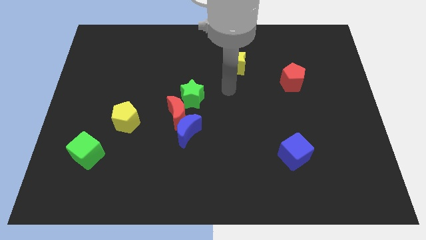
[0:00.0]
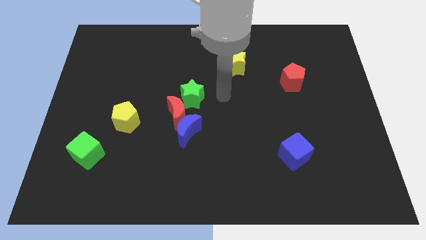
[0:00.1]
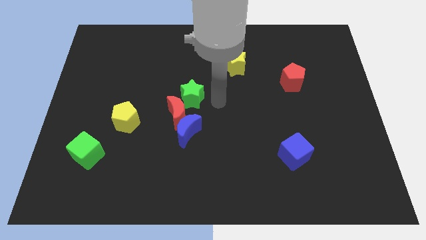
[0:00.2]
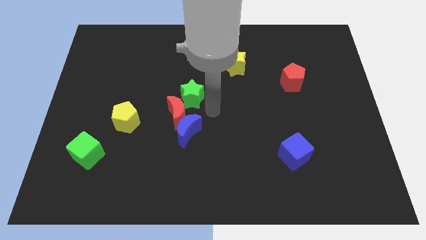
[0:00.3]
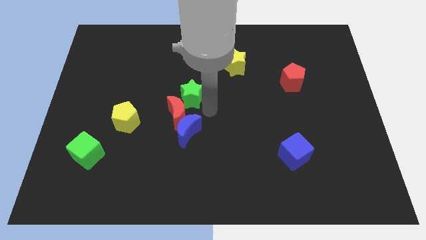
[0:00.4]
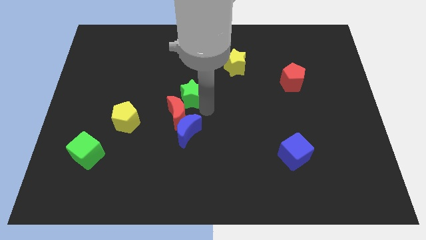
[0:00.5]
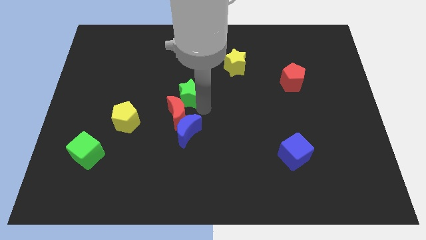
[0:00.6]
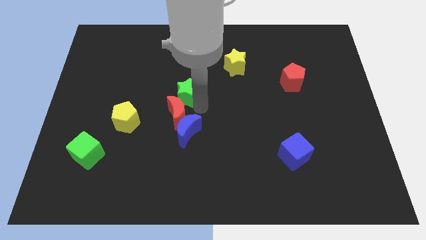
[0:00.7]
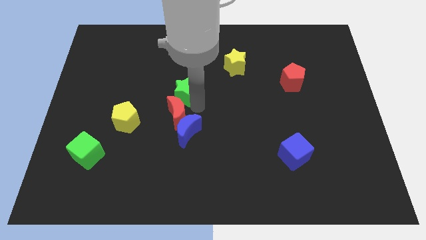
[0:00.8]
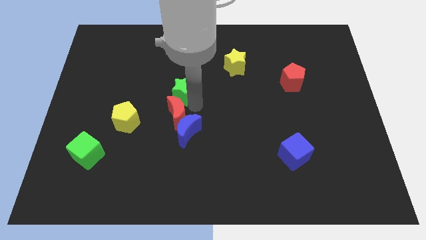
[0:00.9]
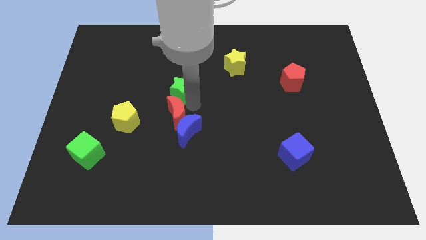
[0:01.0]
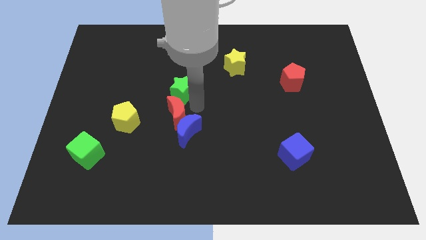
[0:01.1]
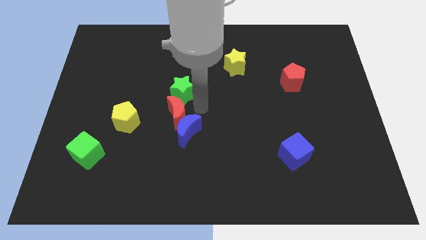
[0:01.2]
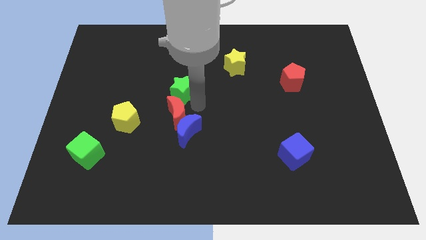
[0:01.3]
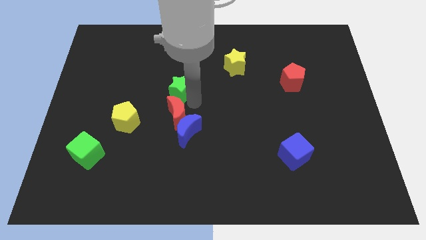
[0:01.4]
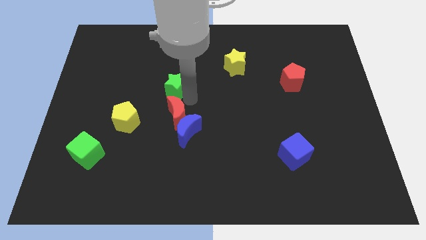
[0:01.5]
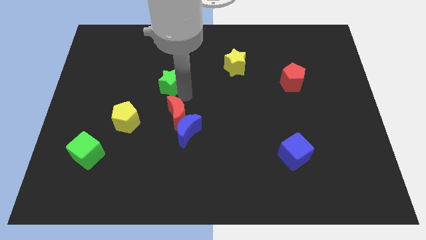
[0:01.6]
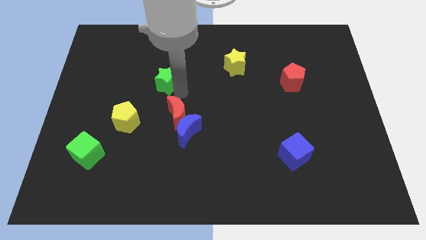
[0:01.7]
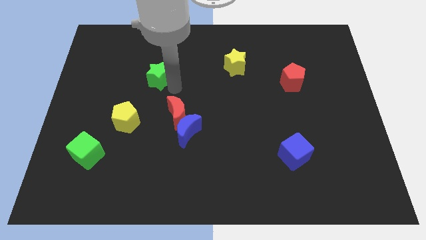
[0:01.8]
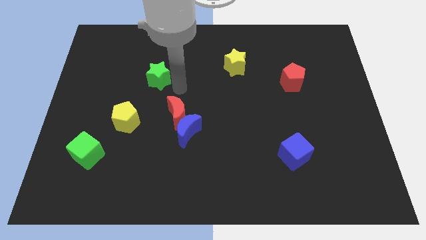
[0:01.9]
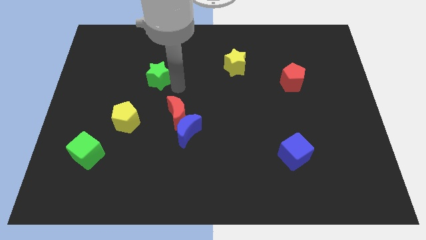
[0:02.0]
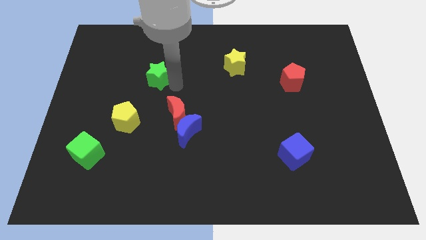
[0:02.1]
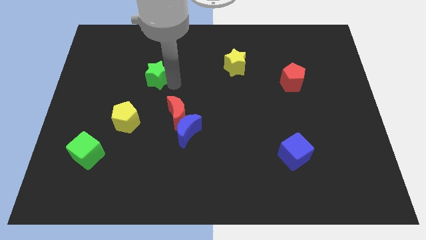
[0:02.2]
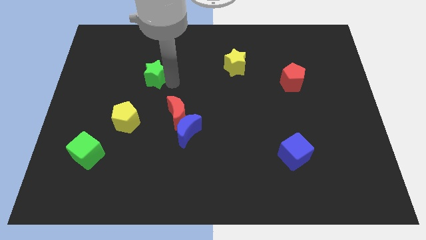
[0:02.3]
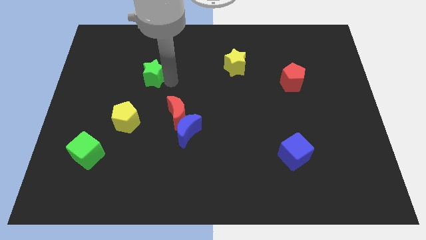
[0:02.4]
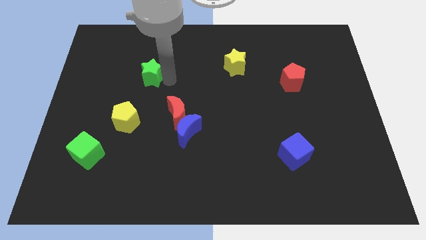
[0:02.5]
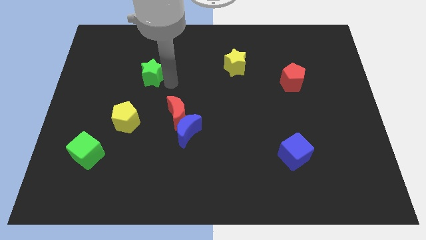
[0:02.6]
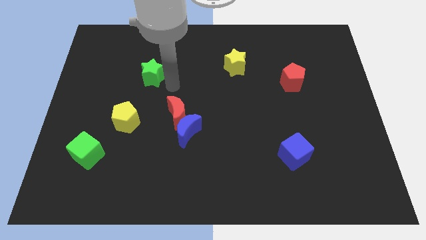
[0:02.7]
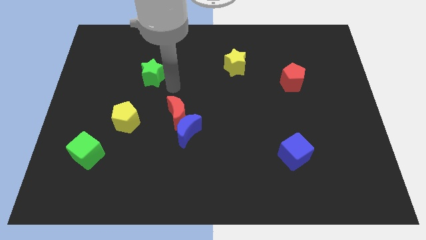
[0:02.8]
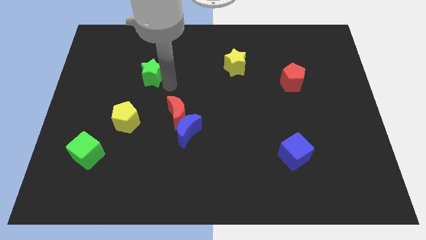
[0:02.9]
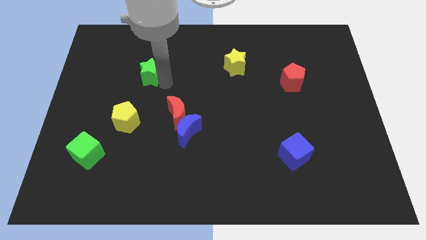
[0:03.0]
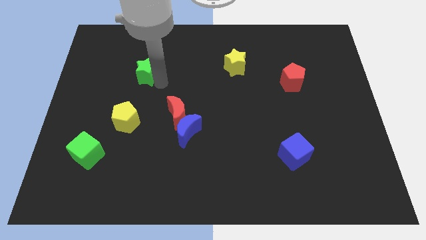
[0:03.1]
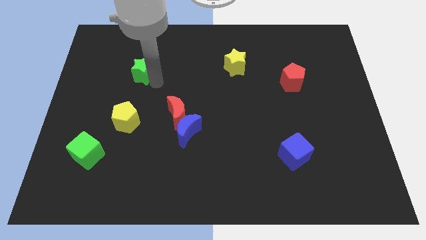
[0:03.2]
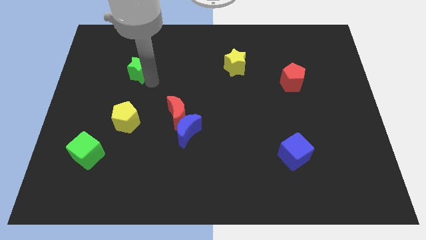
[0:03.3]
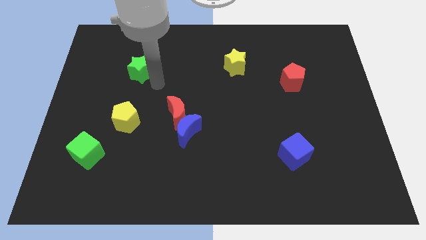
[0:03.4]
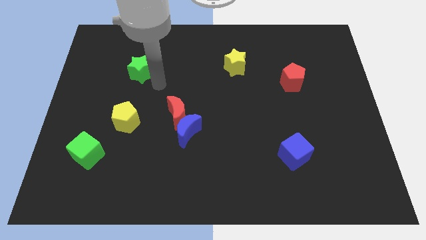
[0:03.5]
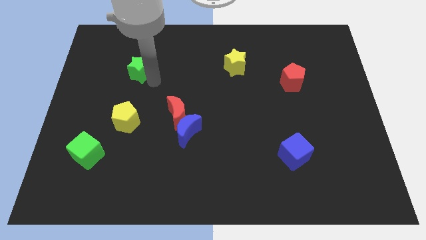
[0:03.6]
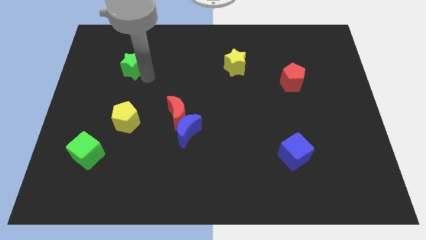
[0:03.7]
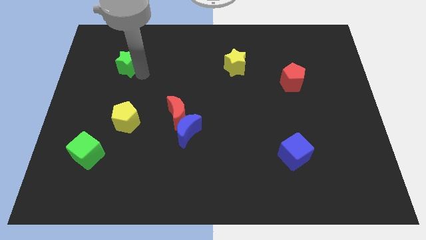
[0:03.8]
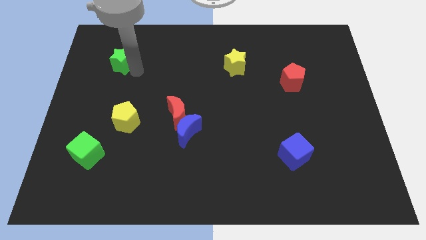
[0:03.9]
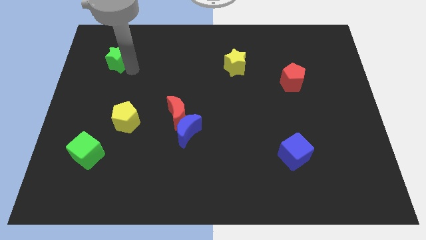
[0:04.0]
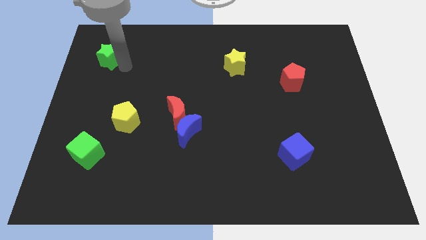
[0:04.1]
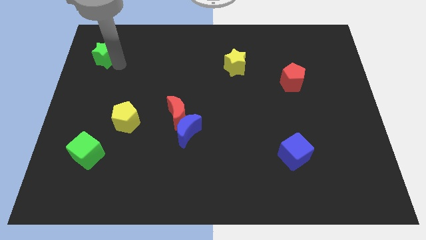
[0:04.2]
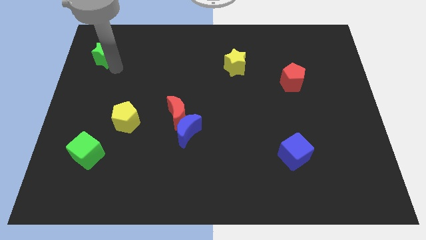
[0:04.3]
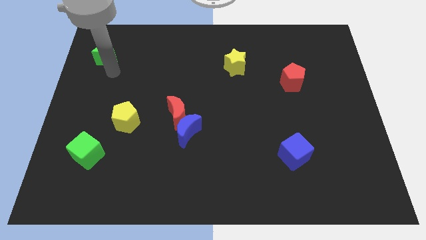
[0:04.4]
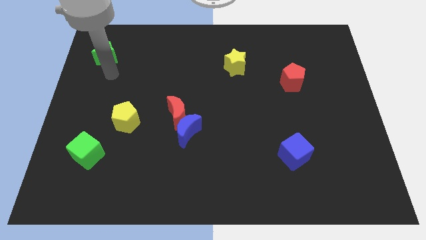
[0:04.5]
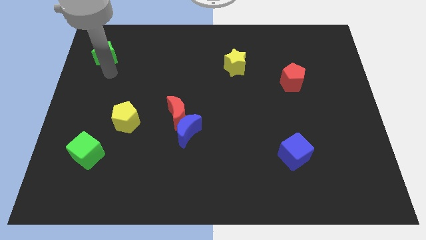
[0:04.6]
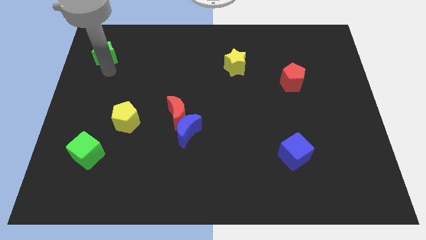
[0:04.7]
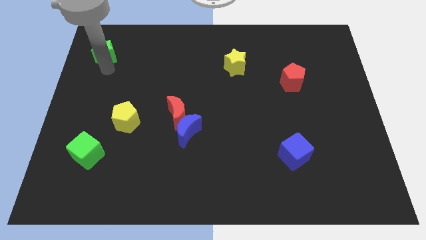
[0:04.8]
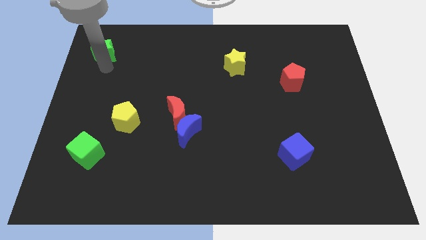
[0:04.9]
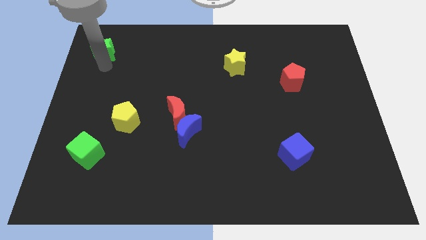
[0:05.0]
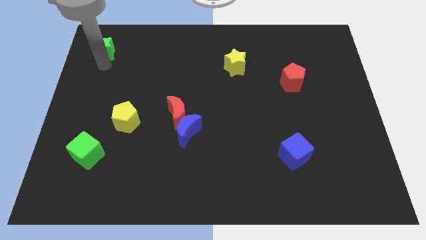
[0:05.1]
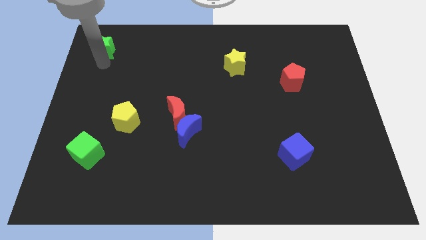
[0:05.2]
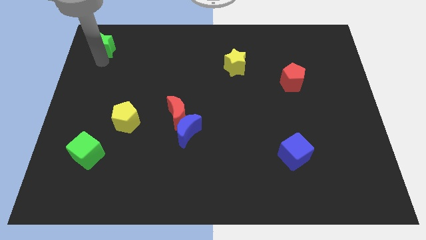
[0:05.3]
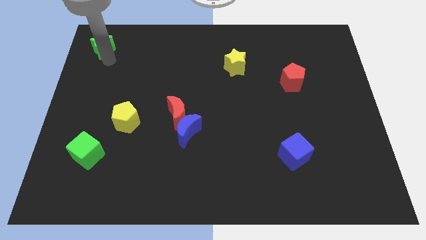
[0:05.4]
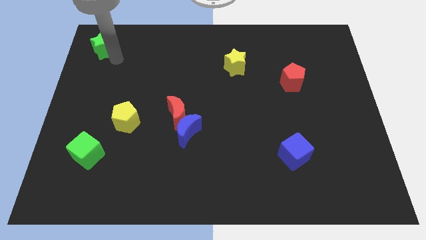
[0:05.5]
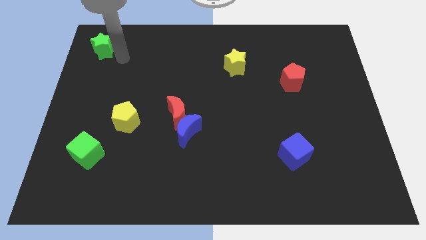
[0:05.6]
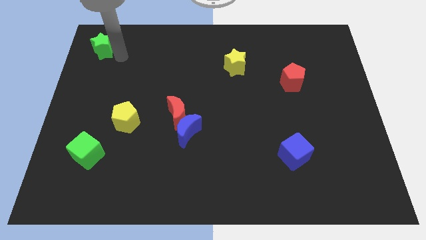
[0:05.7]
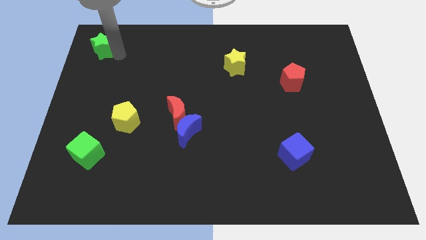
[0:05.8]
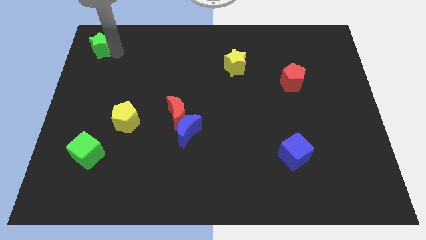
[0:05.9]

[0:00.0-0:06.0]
put the green star to the top left corner

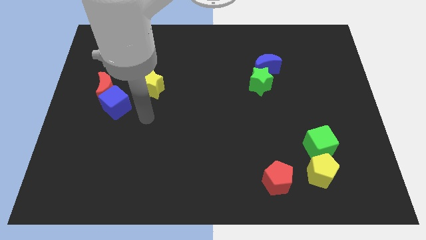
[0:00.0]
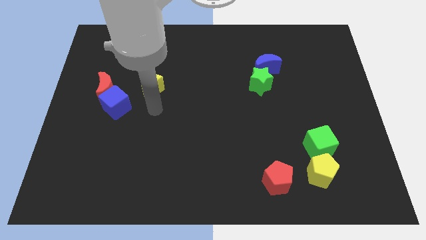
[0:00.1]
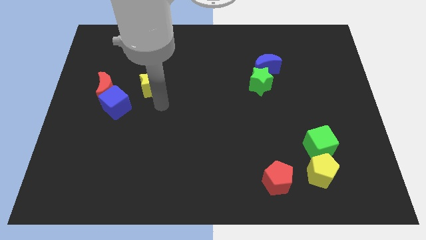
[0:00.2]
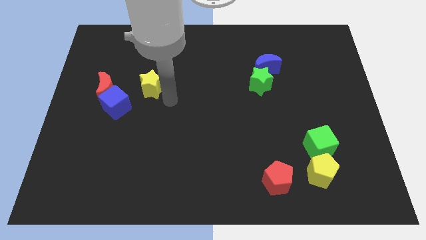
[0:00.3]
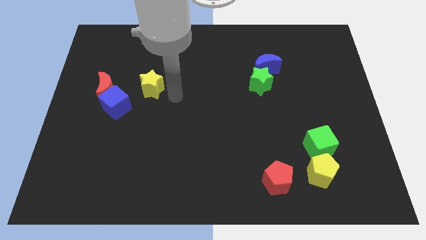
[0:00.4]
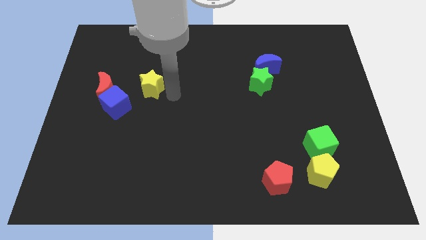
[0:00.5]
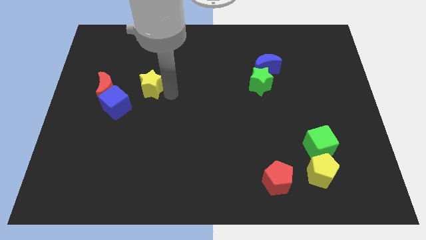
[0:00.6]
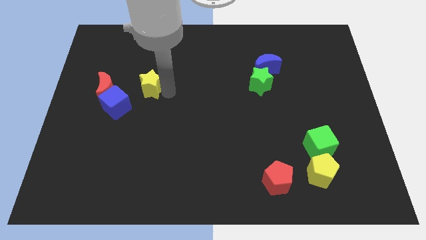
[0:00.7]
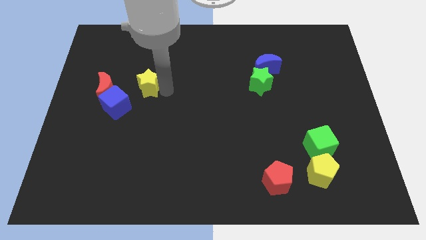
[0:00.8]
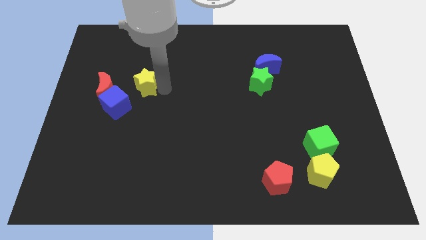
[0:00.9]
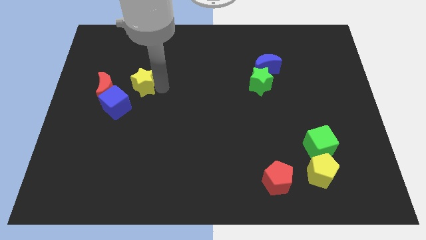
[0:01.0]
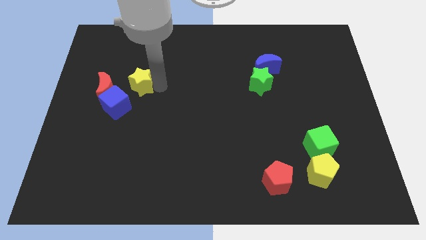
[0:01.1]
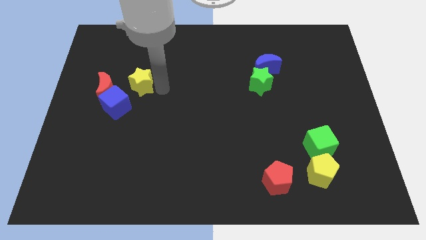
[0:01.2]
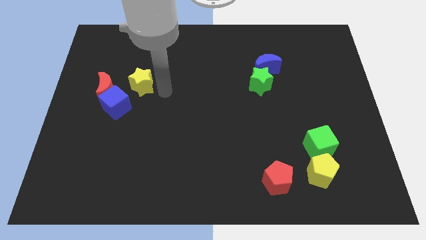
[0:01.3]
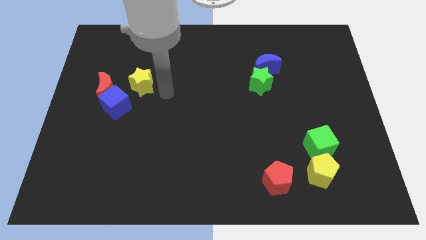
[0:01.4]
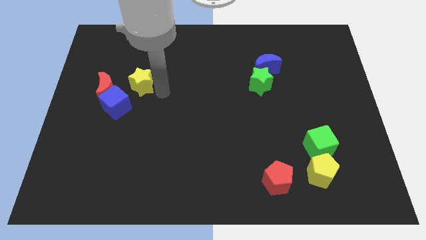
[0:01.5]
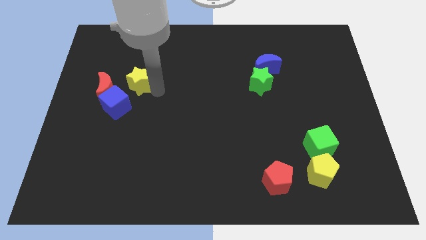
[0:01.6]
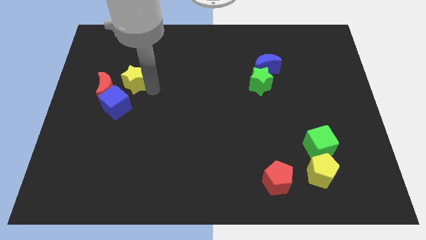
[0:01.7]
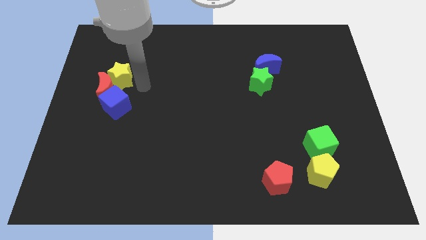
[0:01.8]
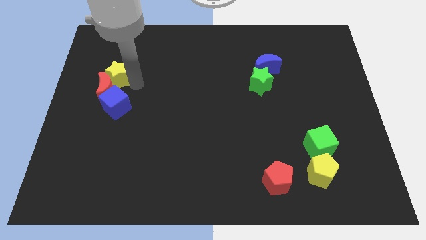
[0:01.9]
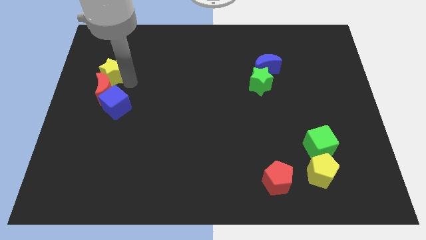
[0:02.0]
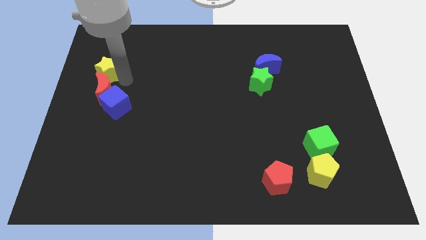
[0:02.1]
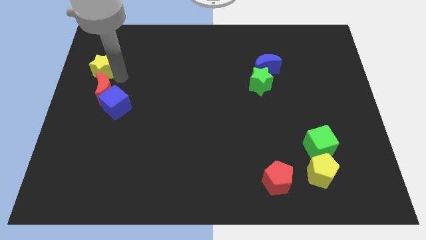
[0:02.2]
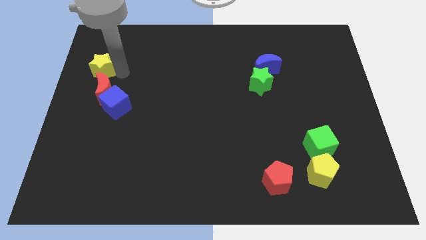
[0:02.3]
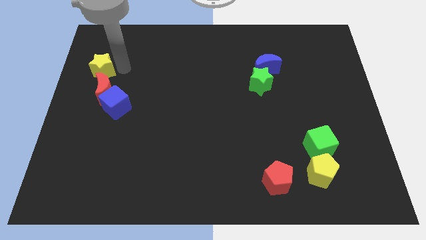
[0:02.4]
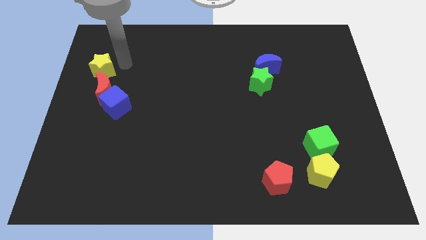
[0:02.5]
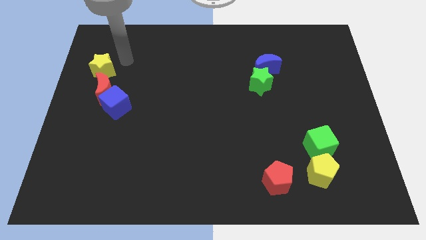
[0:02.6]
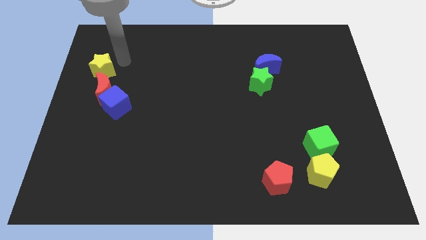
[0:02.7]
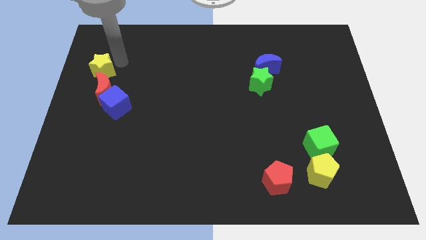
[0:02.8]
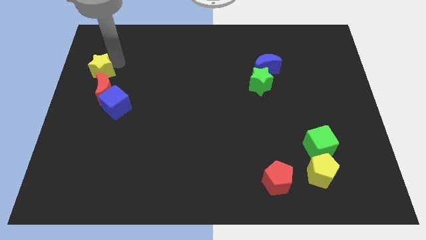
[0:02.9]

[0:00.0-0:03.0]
slide the yellow star to the center left
